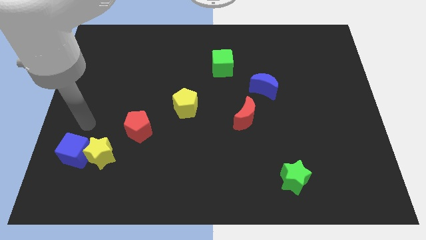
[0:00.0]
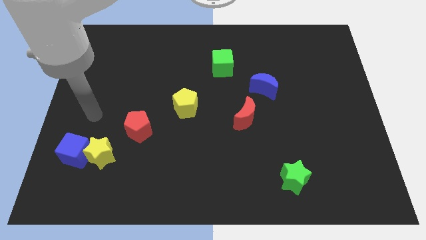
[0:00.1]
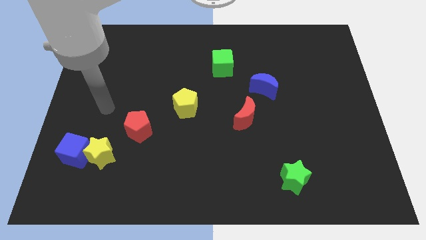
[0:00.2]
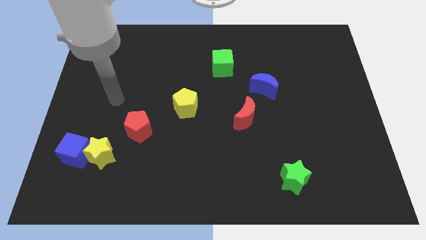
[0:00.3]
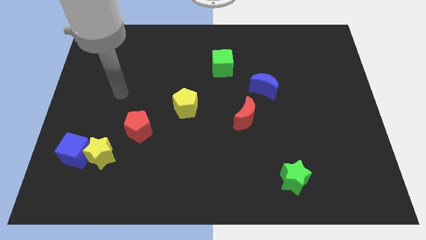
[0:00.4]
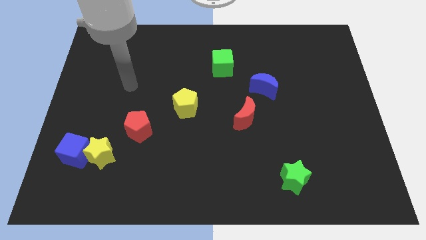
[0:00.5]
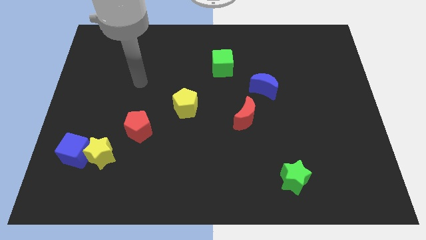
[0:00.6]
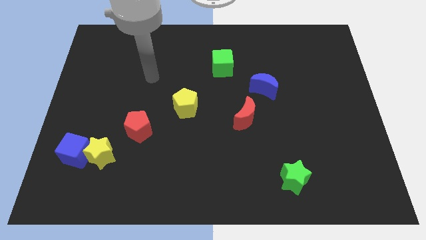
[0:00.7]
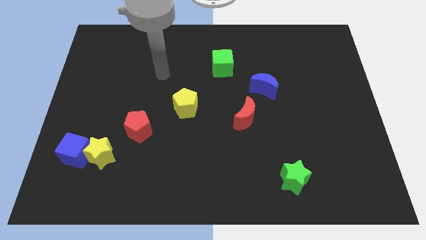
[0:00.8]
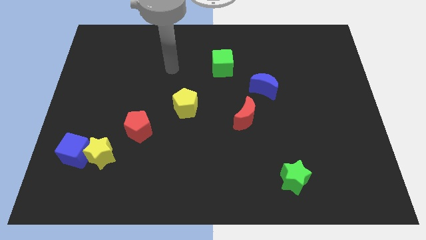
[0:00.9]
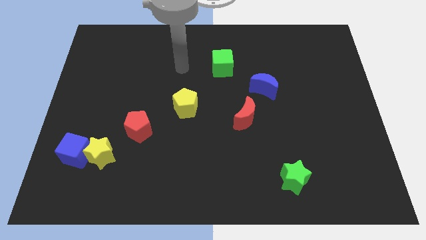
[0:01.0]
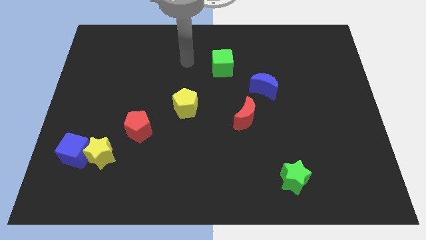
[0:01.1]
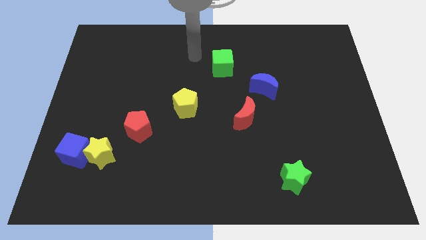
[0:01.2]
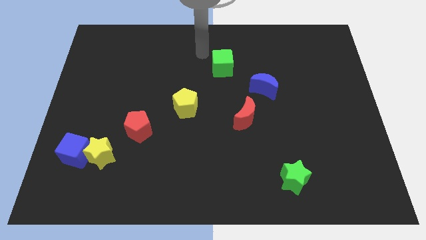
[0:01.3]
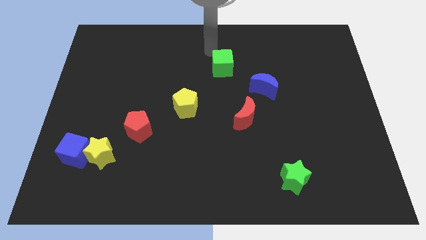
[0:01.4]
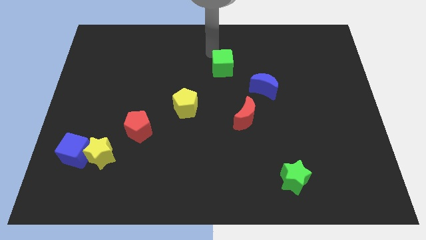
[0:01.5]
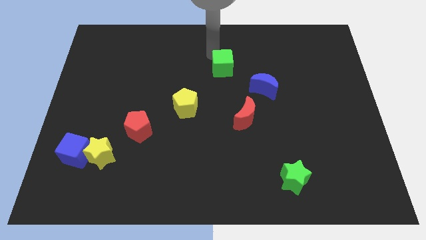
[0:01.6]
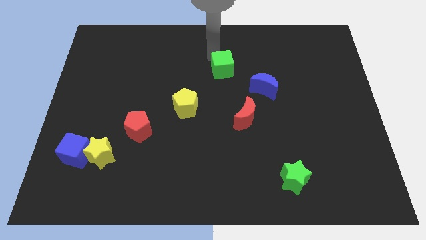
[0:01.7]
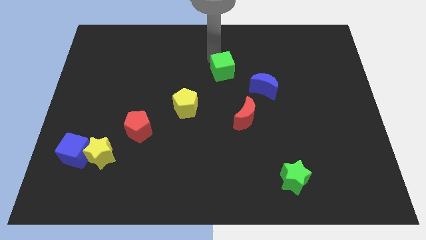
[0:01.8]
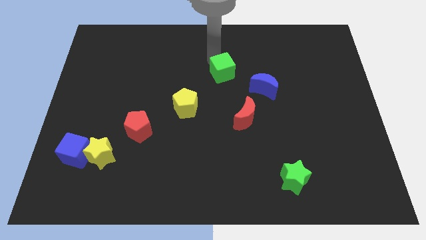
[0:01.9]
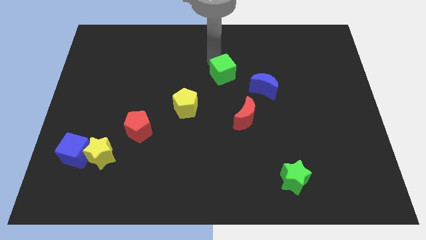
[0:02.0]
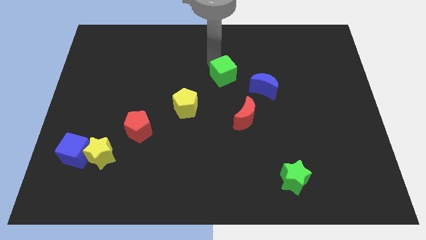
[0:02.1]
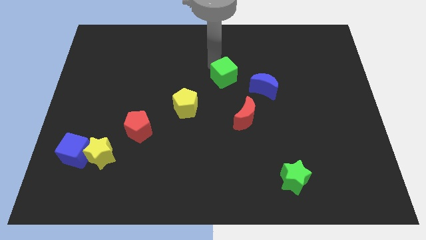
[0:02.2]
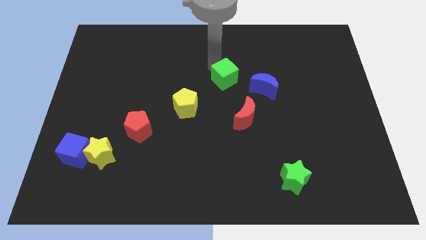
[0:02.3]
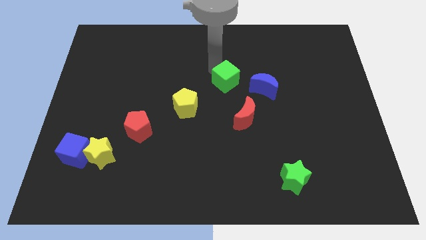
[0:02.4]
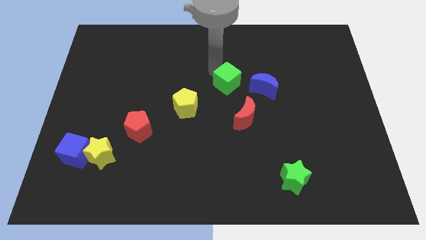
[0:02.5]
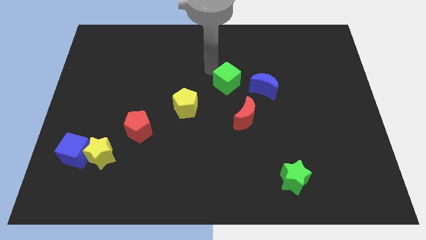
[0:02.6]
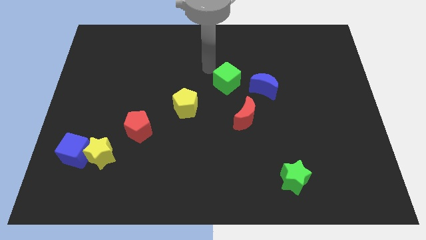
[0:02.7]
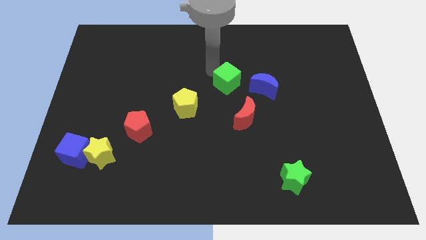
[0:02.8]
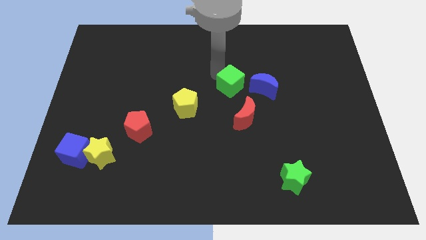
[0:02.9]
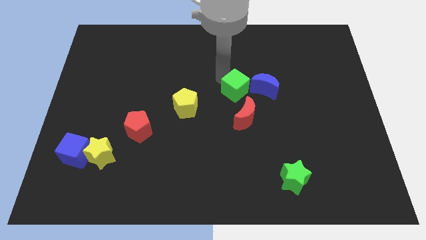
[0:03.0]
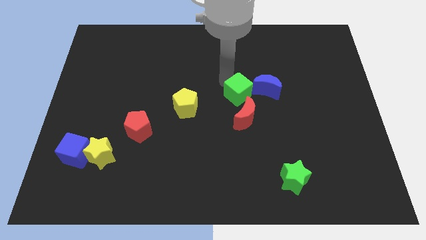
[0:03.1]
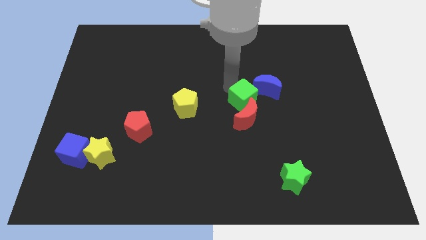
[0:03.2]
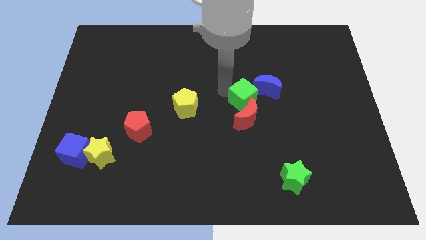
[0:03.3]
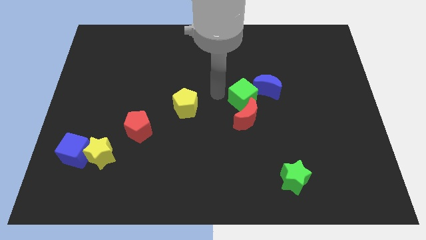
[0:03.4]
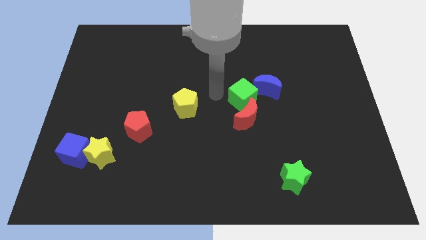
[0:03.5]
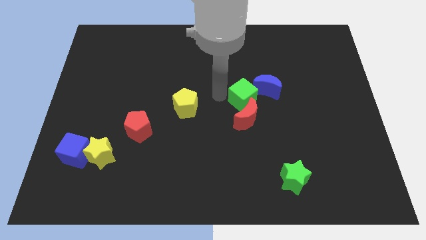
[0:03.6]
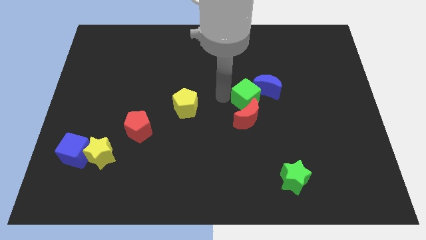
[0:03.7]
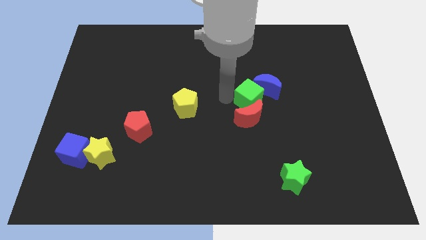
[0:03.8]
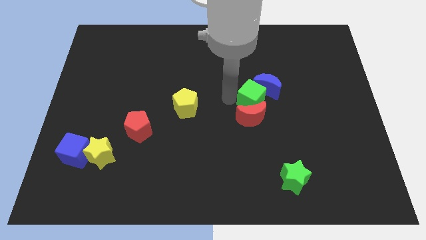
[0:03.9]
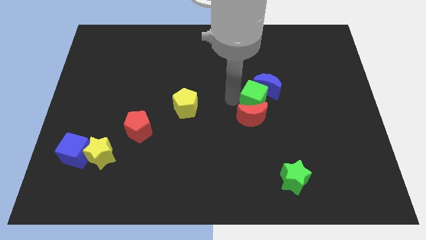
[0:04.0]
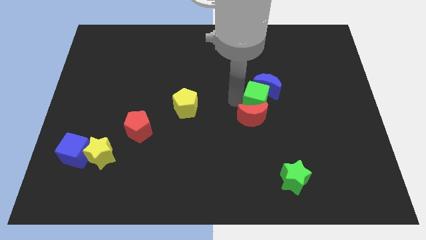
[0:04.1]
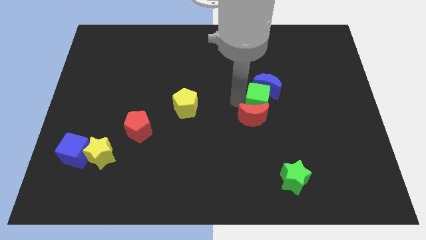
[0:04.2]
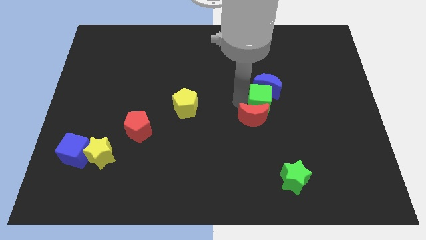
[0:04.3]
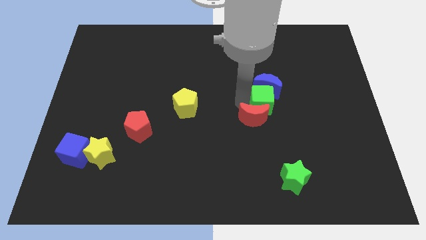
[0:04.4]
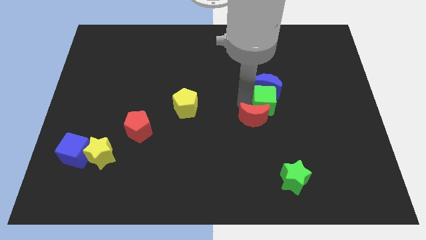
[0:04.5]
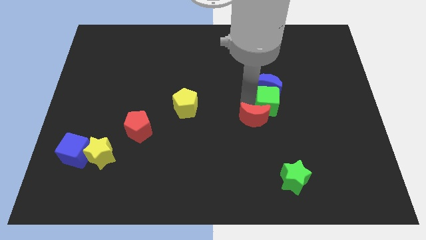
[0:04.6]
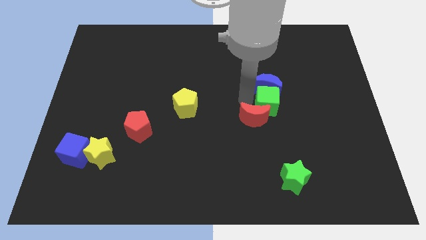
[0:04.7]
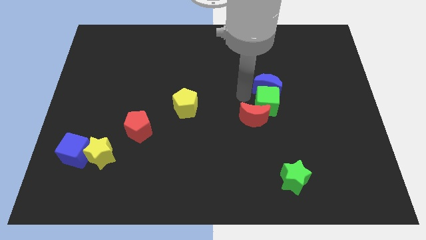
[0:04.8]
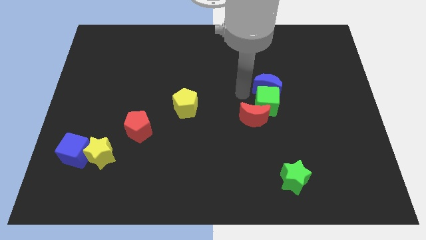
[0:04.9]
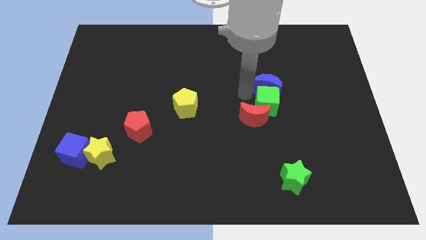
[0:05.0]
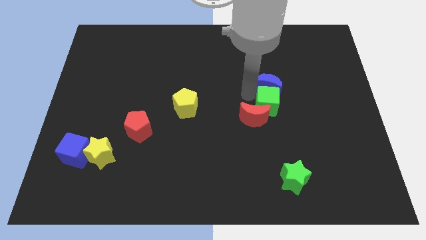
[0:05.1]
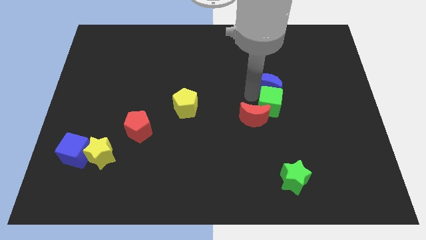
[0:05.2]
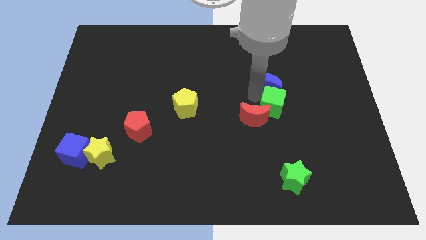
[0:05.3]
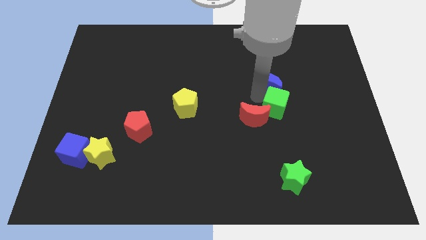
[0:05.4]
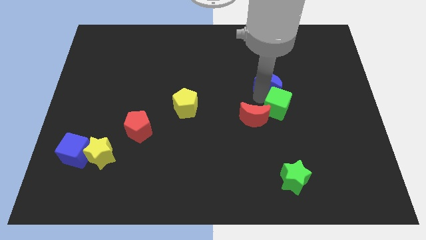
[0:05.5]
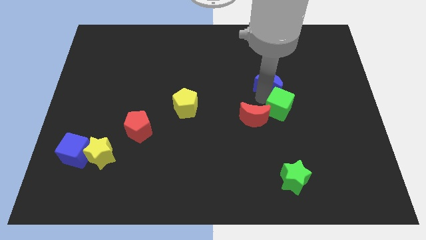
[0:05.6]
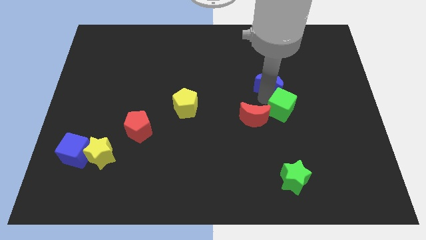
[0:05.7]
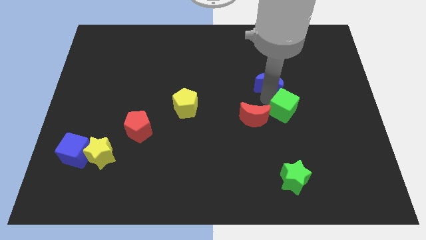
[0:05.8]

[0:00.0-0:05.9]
slide the green cube downwards and then to the right

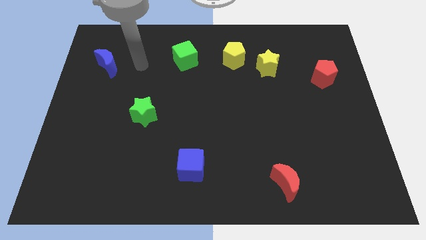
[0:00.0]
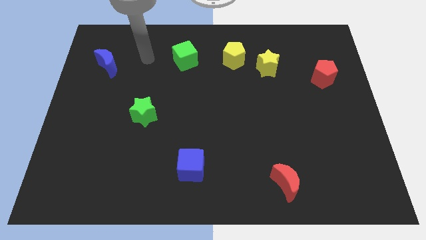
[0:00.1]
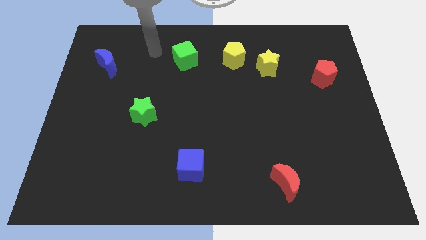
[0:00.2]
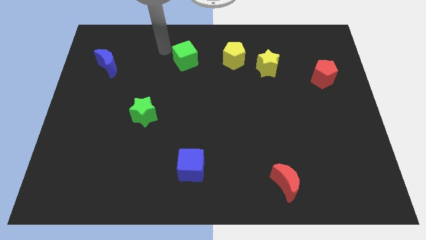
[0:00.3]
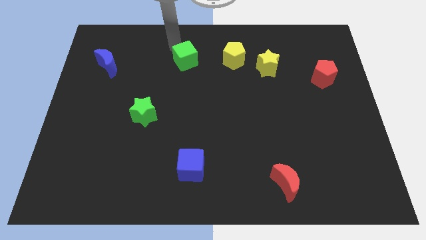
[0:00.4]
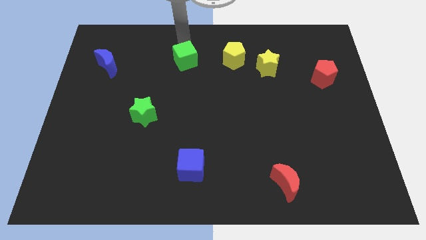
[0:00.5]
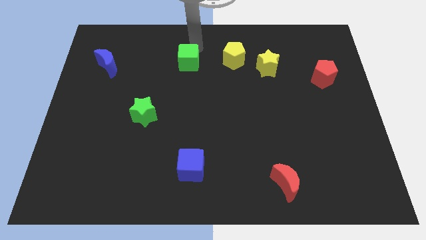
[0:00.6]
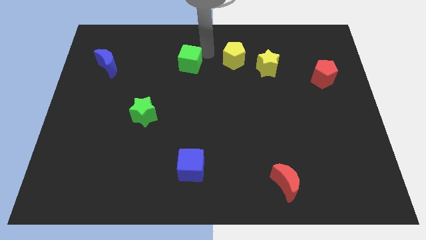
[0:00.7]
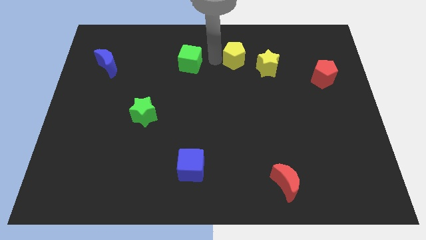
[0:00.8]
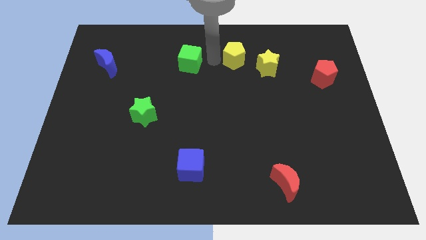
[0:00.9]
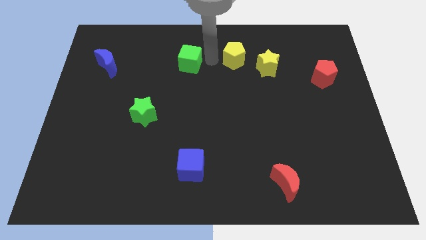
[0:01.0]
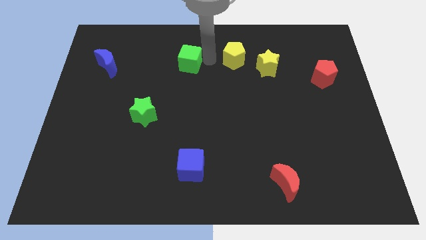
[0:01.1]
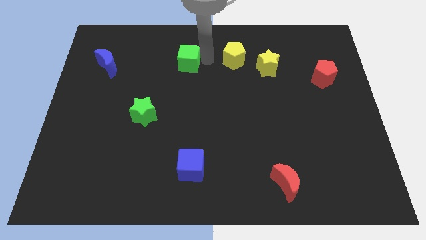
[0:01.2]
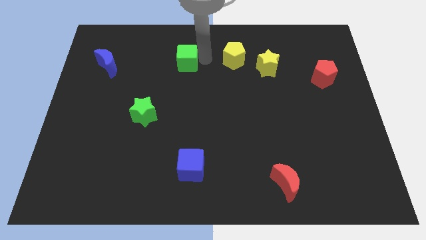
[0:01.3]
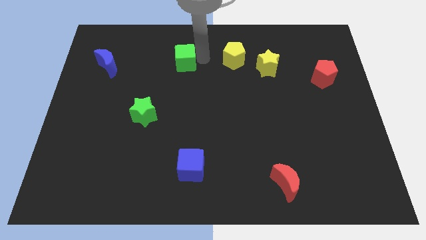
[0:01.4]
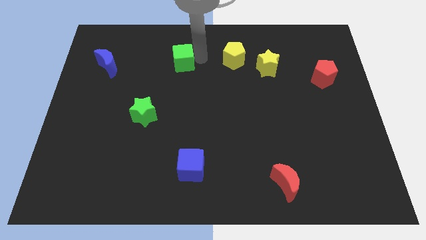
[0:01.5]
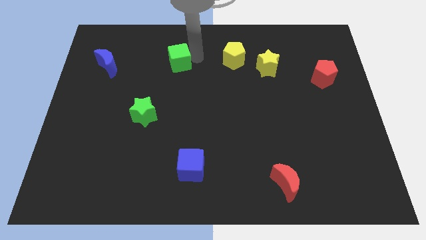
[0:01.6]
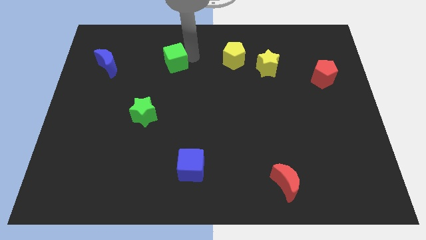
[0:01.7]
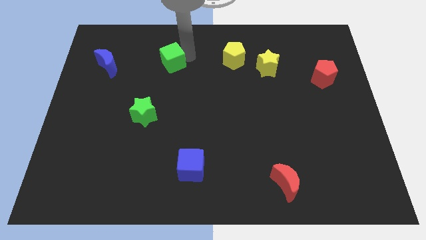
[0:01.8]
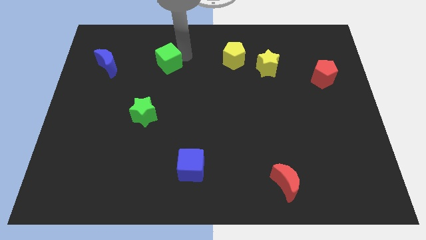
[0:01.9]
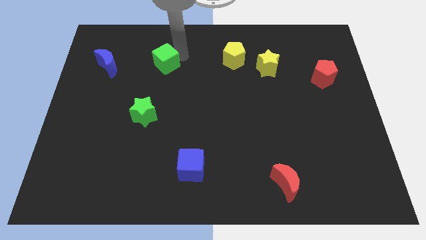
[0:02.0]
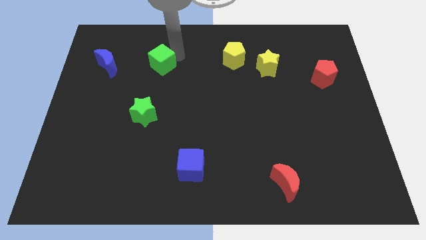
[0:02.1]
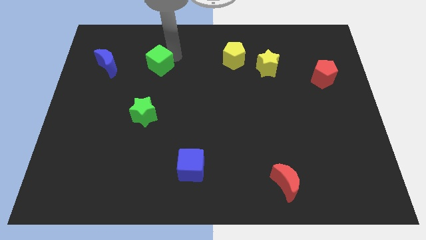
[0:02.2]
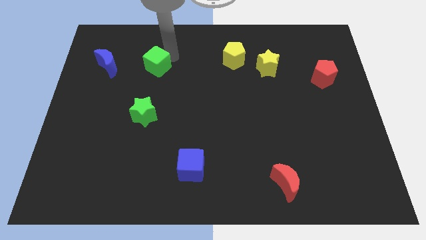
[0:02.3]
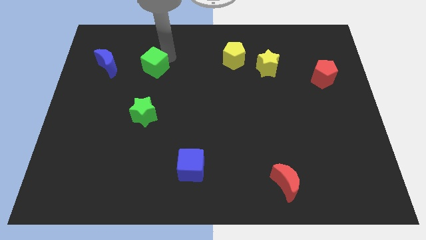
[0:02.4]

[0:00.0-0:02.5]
slightly move the green cube down and then left
